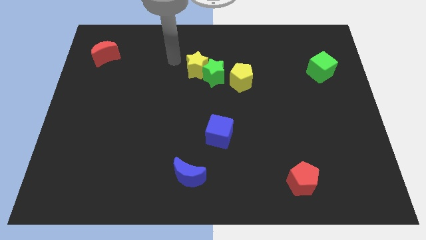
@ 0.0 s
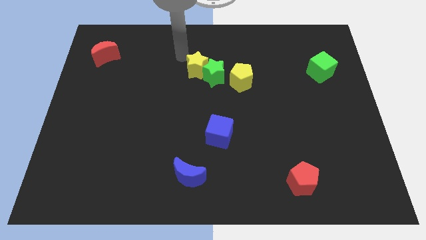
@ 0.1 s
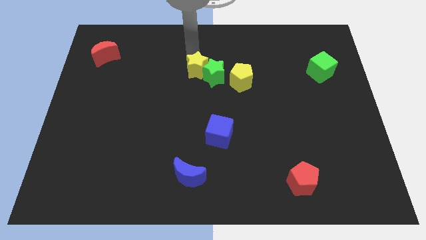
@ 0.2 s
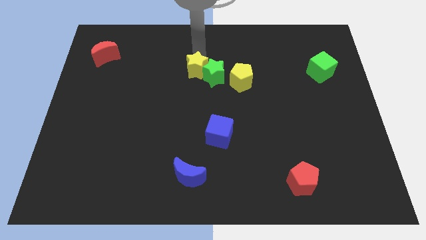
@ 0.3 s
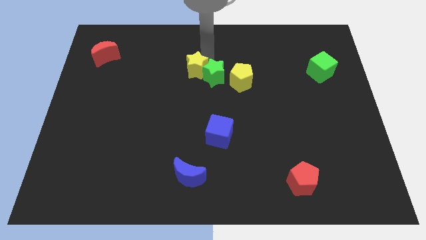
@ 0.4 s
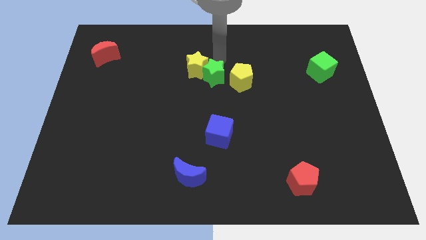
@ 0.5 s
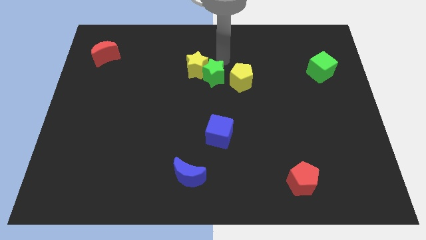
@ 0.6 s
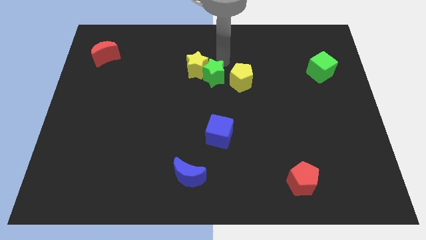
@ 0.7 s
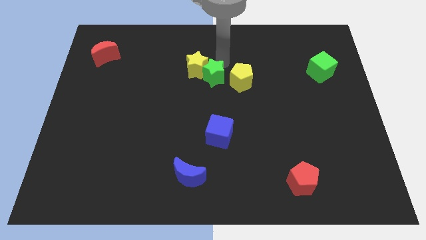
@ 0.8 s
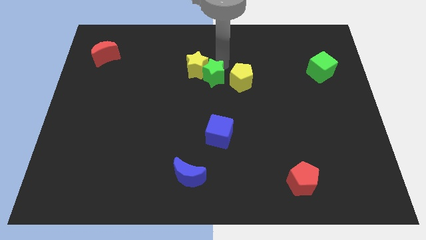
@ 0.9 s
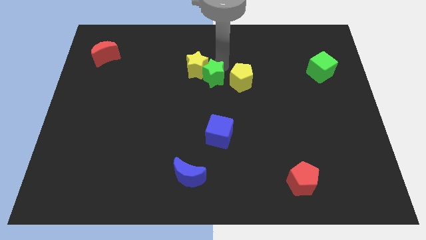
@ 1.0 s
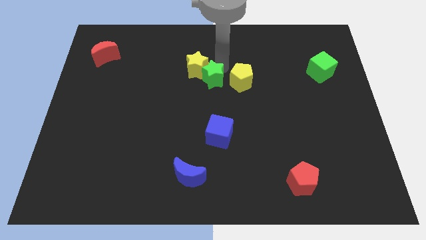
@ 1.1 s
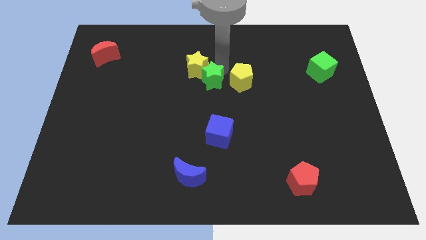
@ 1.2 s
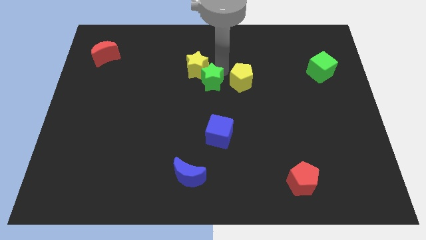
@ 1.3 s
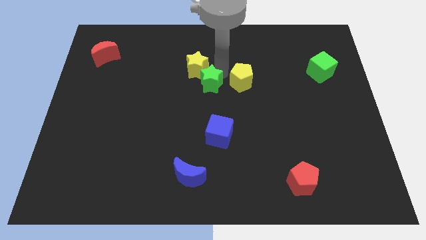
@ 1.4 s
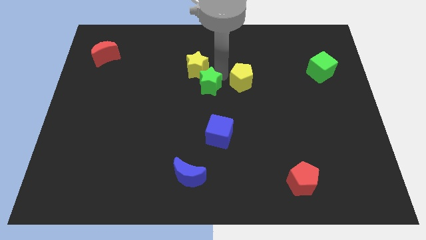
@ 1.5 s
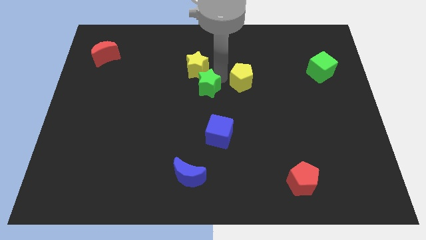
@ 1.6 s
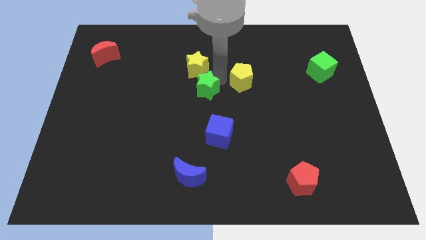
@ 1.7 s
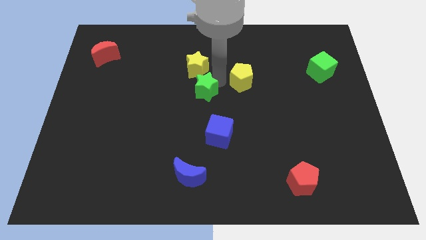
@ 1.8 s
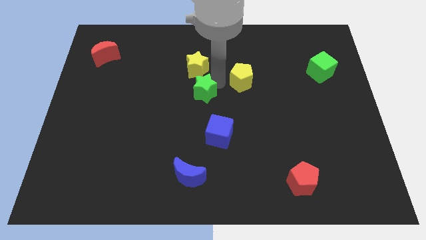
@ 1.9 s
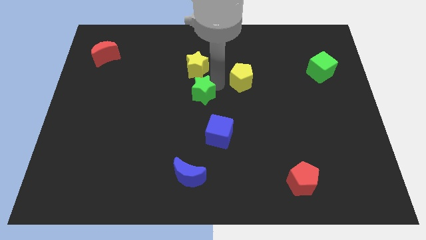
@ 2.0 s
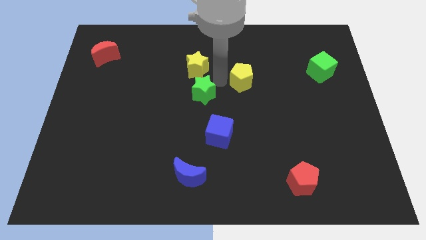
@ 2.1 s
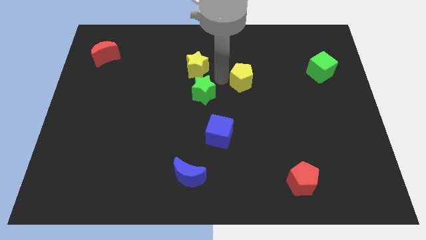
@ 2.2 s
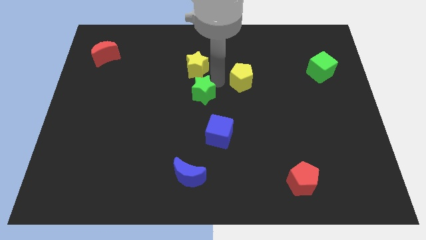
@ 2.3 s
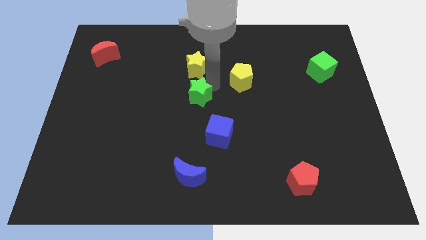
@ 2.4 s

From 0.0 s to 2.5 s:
push the green star somewhat downwards and to the left diagonally

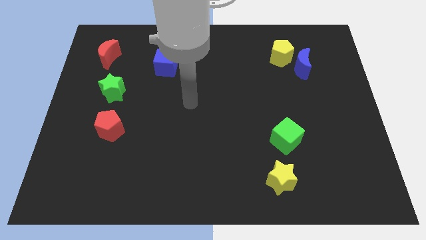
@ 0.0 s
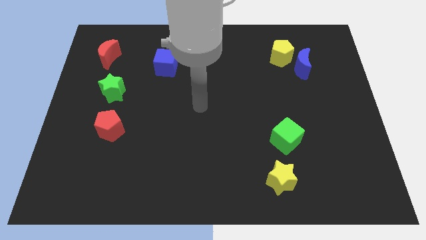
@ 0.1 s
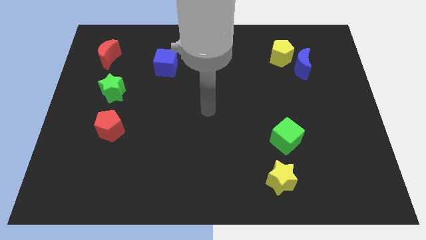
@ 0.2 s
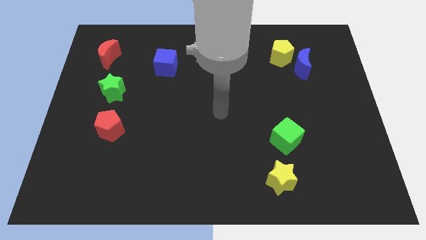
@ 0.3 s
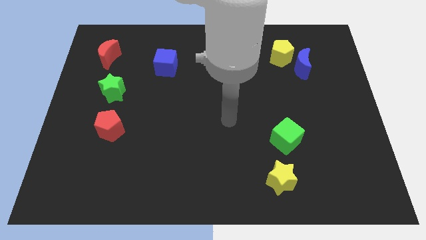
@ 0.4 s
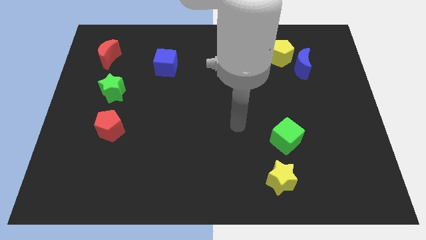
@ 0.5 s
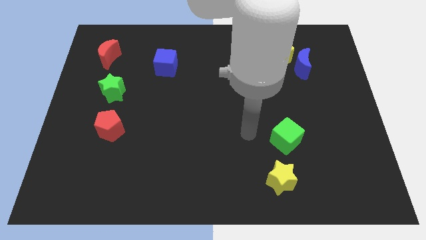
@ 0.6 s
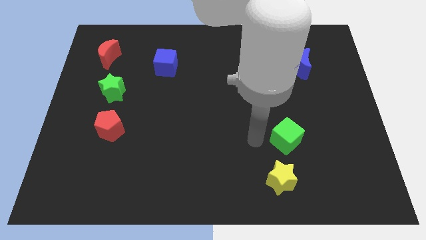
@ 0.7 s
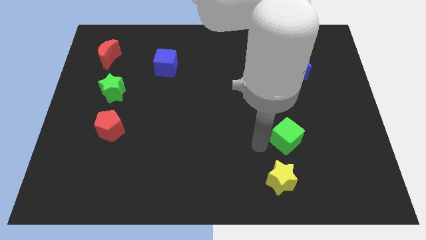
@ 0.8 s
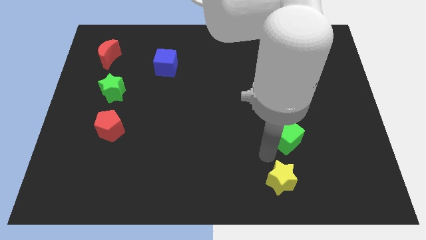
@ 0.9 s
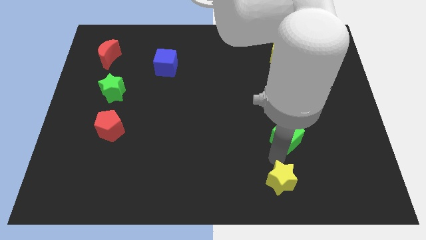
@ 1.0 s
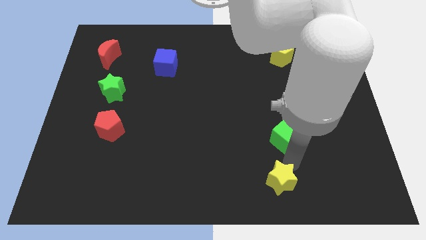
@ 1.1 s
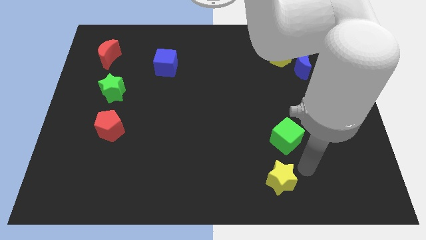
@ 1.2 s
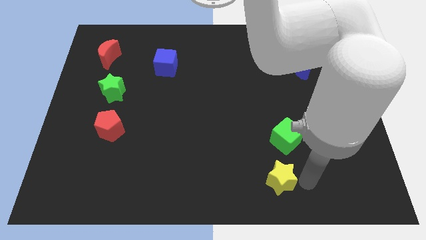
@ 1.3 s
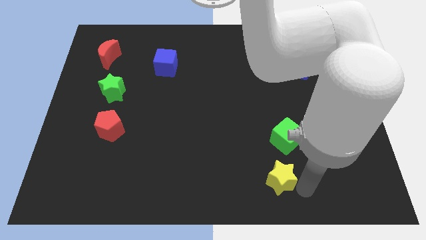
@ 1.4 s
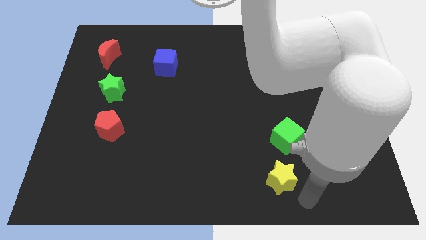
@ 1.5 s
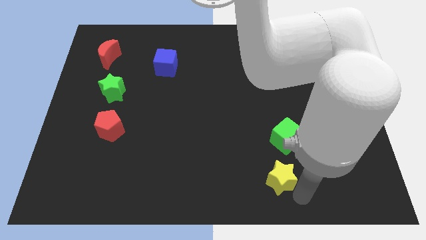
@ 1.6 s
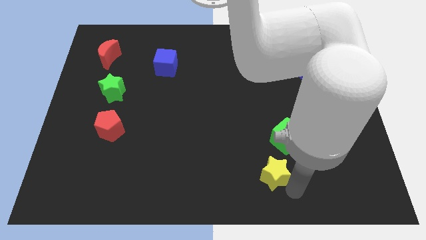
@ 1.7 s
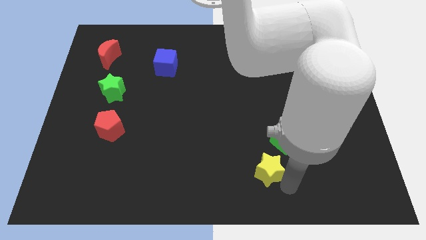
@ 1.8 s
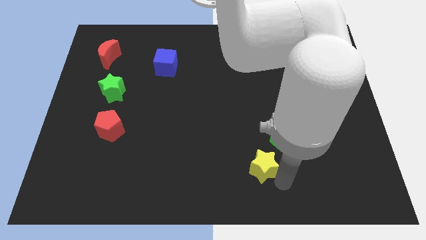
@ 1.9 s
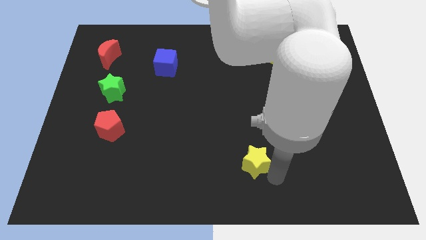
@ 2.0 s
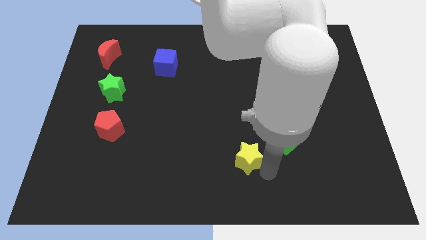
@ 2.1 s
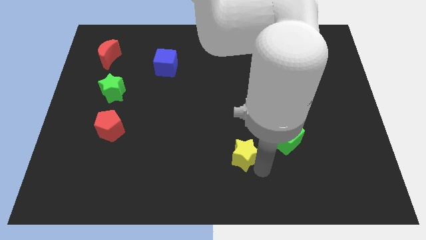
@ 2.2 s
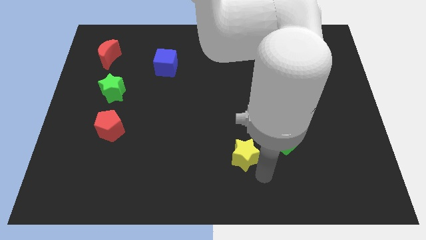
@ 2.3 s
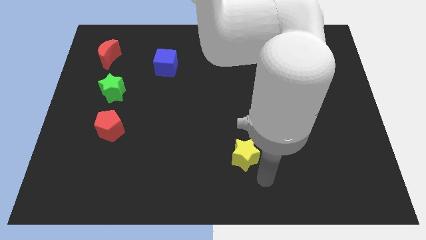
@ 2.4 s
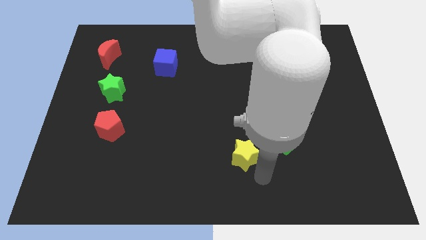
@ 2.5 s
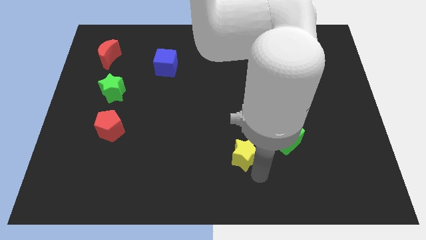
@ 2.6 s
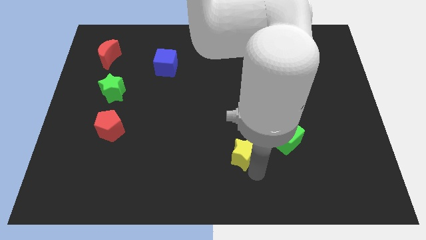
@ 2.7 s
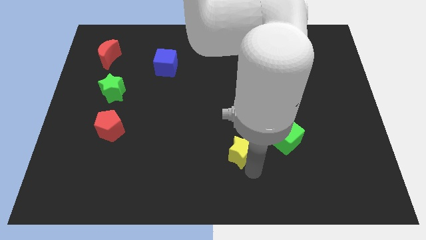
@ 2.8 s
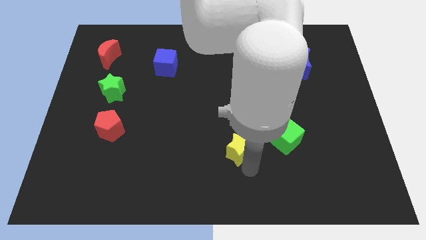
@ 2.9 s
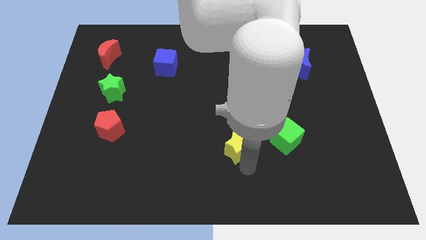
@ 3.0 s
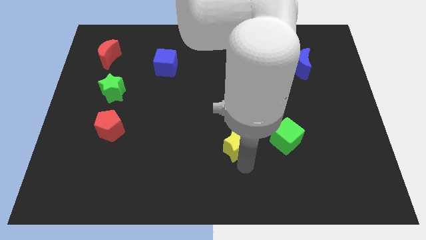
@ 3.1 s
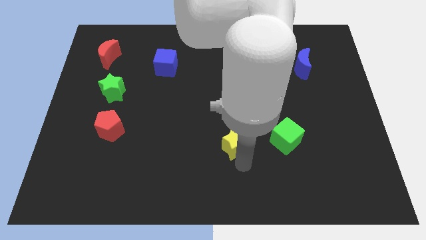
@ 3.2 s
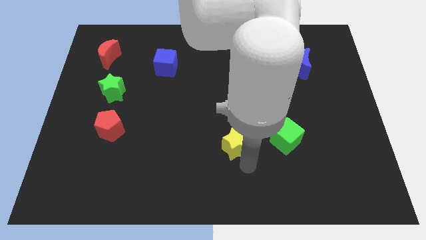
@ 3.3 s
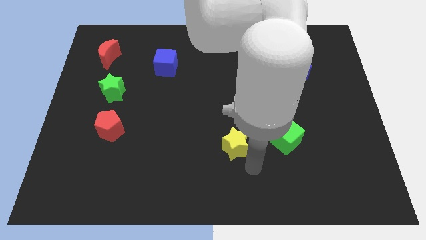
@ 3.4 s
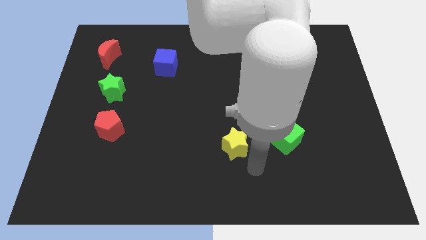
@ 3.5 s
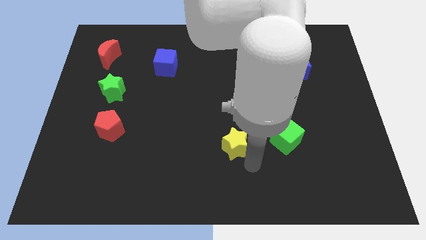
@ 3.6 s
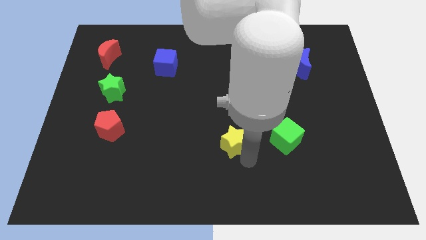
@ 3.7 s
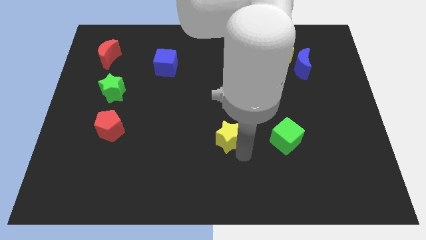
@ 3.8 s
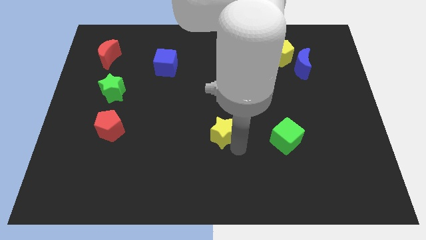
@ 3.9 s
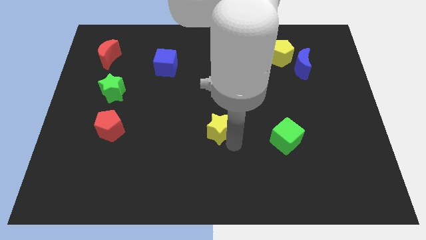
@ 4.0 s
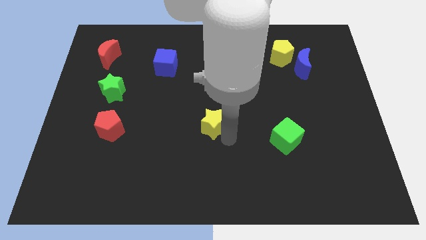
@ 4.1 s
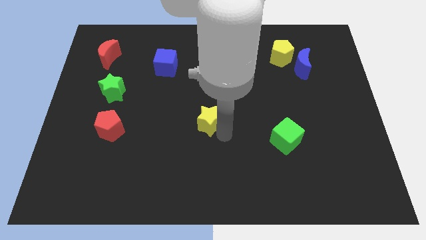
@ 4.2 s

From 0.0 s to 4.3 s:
slide the yellow star up and then to the left

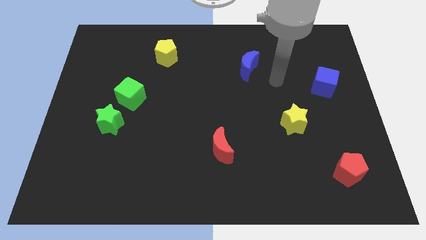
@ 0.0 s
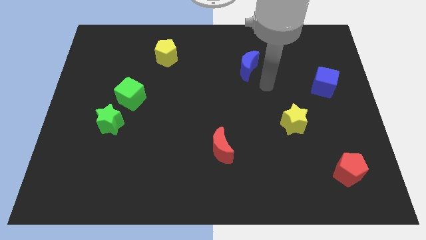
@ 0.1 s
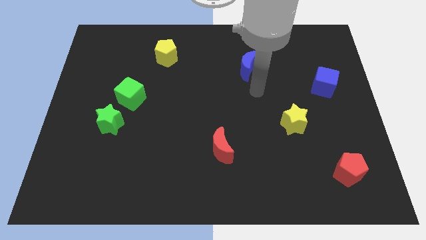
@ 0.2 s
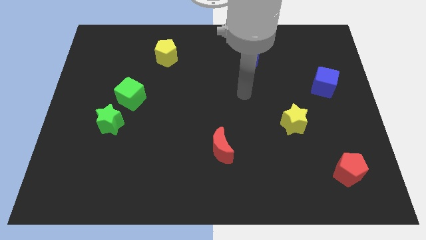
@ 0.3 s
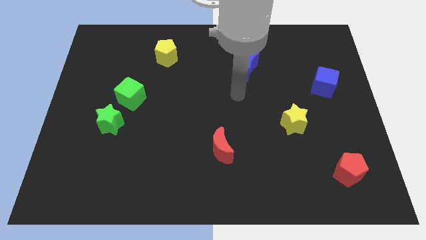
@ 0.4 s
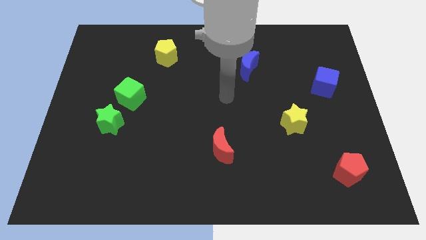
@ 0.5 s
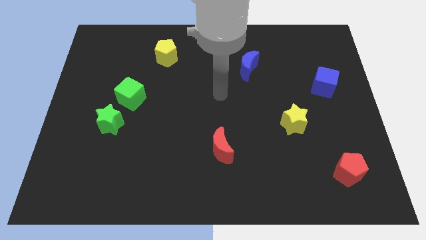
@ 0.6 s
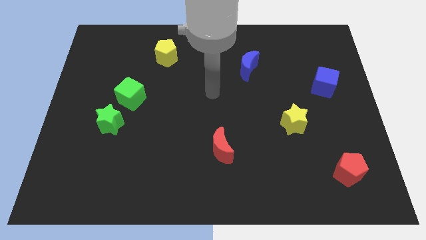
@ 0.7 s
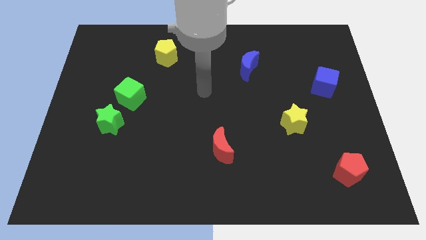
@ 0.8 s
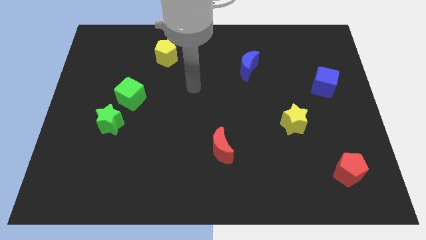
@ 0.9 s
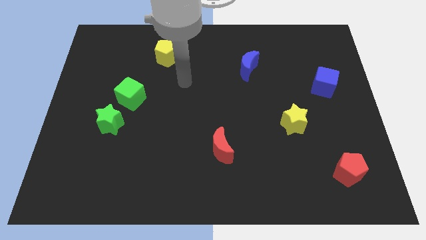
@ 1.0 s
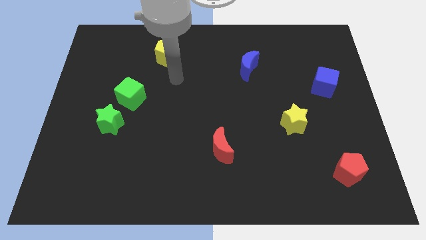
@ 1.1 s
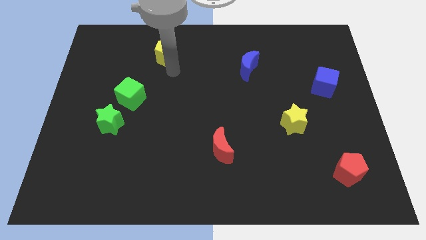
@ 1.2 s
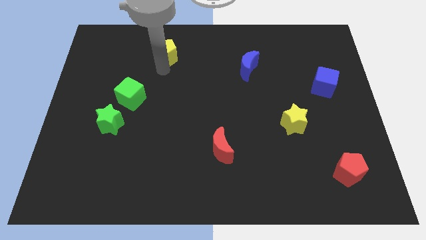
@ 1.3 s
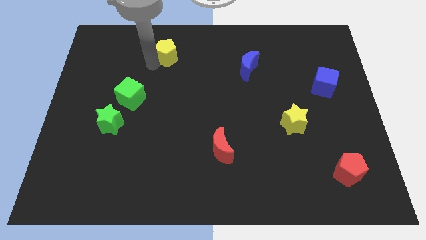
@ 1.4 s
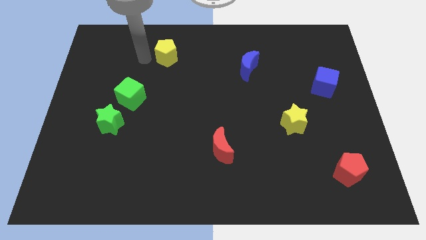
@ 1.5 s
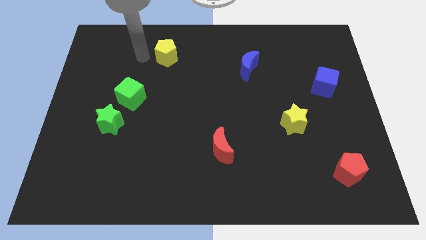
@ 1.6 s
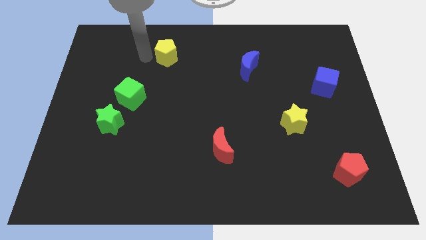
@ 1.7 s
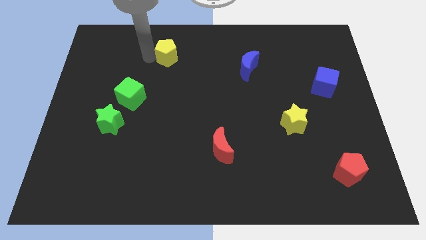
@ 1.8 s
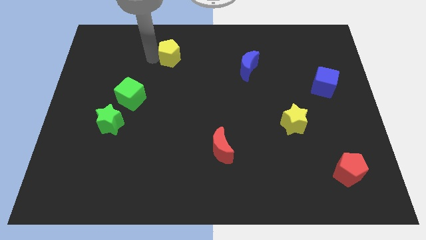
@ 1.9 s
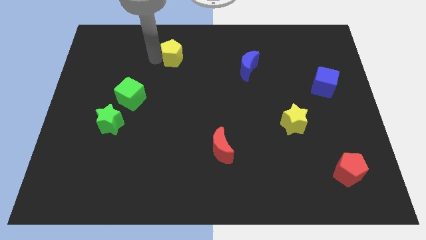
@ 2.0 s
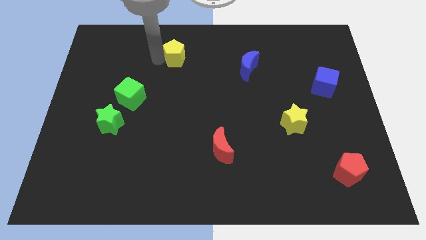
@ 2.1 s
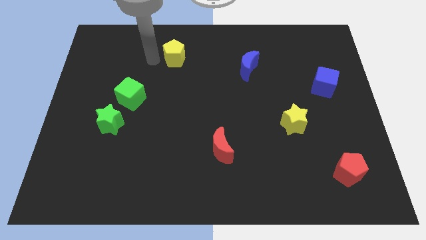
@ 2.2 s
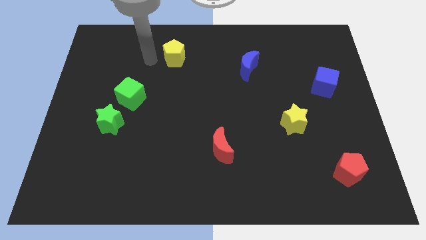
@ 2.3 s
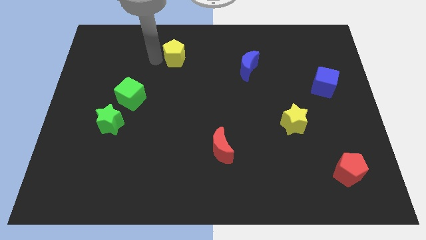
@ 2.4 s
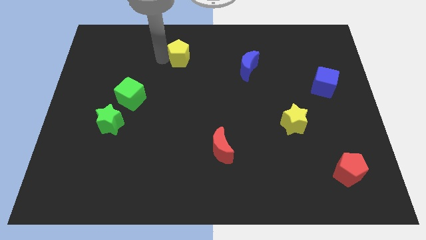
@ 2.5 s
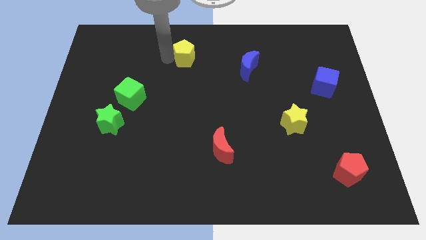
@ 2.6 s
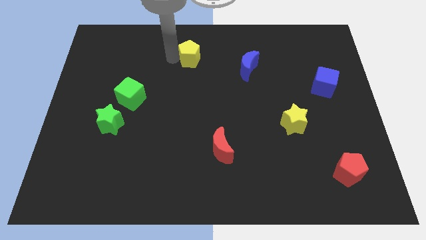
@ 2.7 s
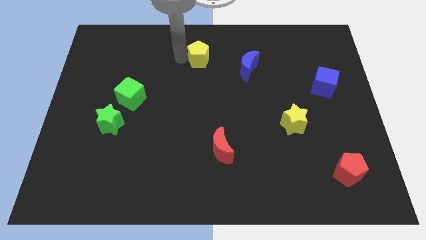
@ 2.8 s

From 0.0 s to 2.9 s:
push the yellow pentagon slightly to the right
